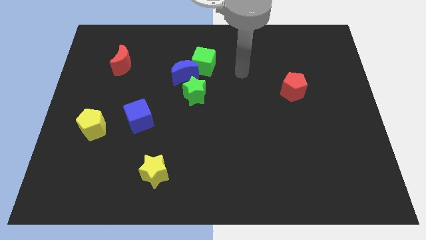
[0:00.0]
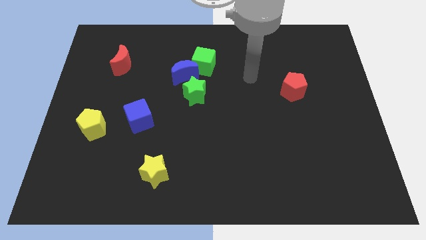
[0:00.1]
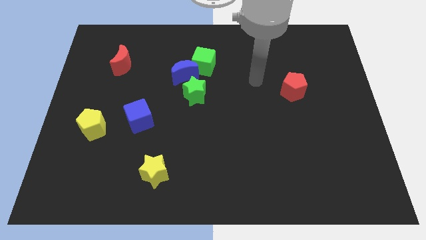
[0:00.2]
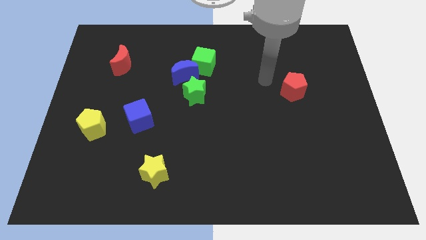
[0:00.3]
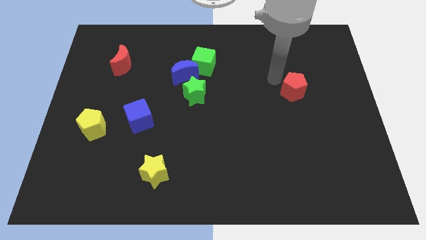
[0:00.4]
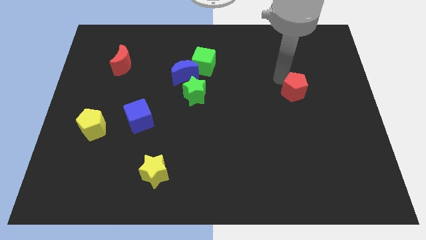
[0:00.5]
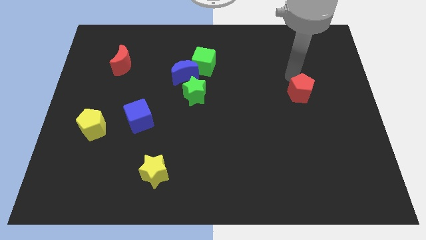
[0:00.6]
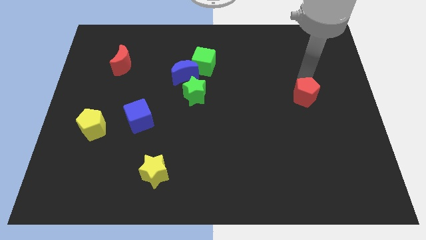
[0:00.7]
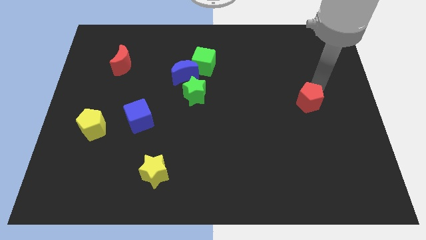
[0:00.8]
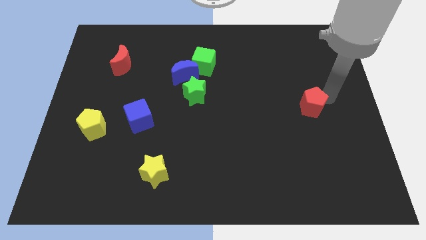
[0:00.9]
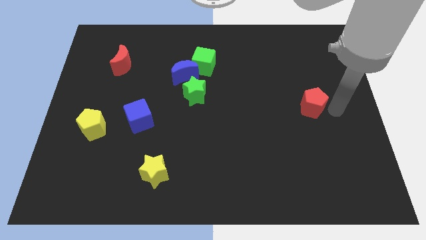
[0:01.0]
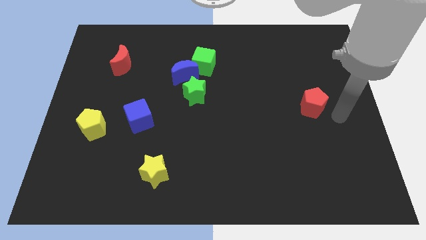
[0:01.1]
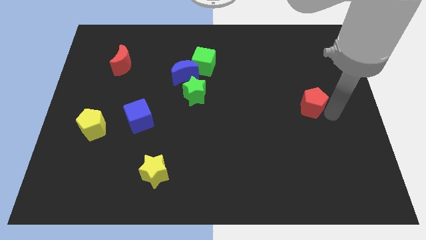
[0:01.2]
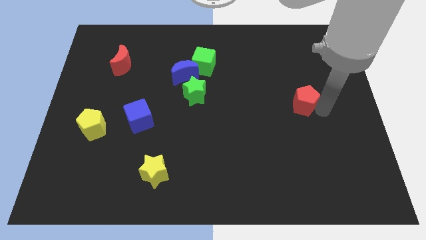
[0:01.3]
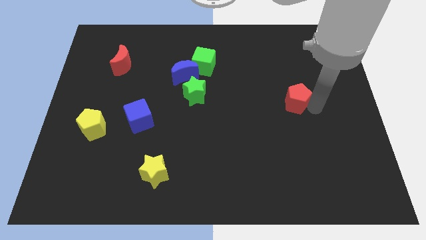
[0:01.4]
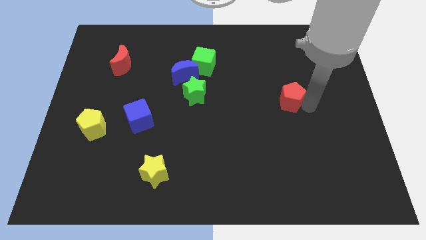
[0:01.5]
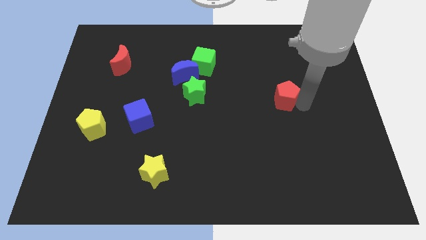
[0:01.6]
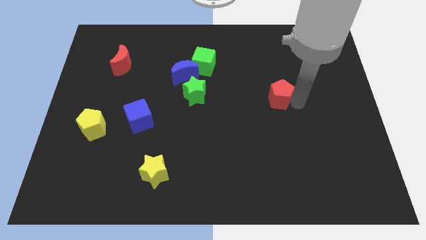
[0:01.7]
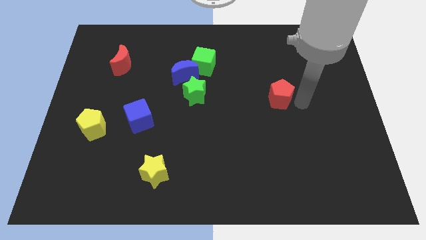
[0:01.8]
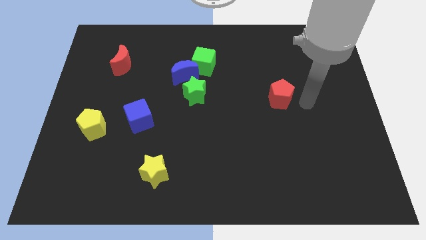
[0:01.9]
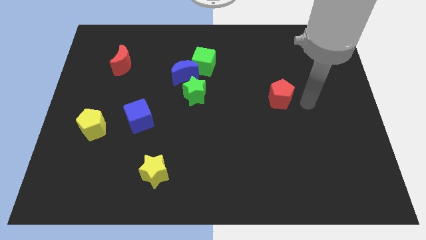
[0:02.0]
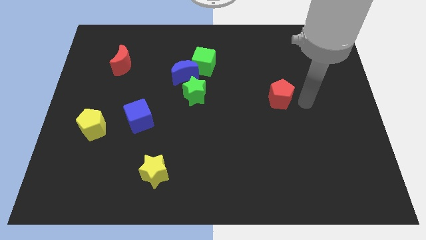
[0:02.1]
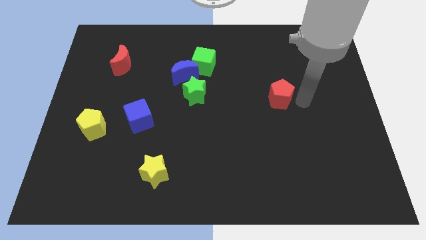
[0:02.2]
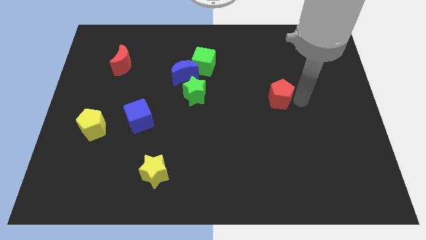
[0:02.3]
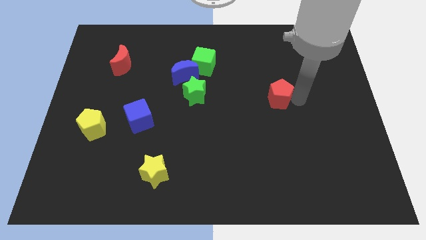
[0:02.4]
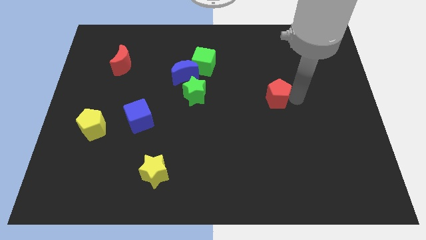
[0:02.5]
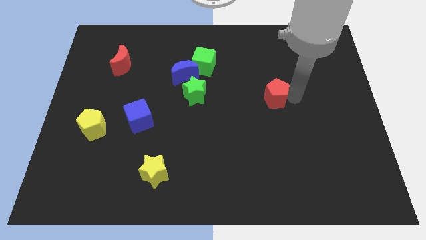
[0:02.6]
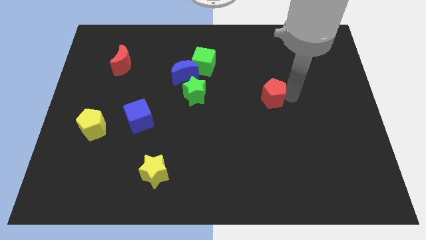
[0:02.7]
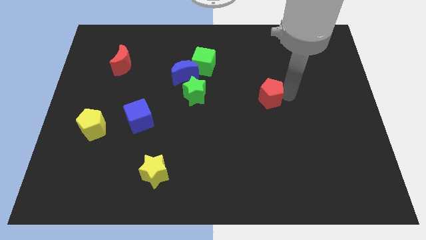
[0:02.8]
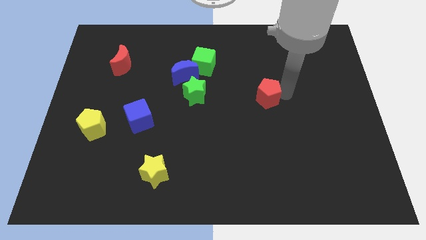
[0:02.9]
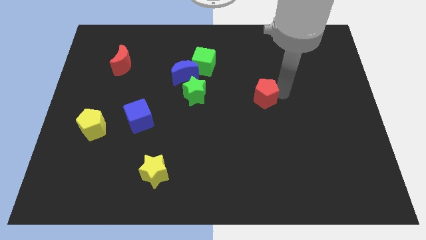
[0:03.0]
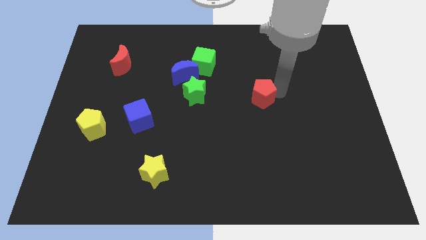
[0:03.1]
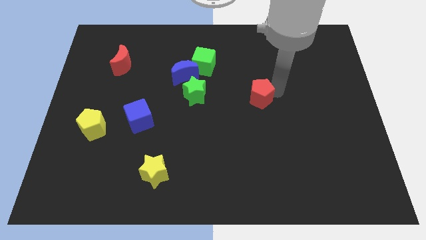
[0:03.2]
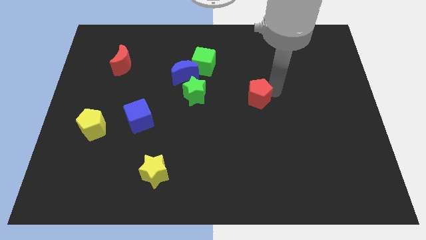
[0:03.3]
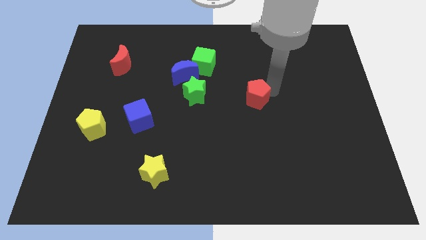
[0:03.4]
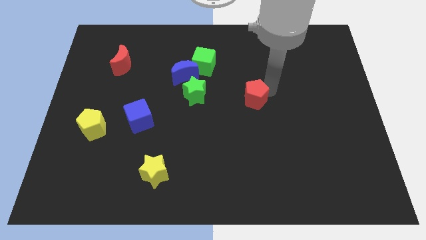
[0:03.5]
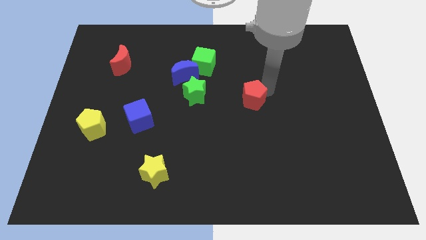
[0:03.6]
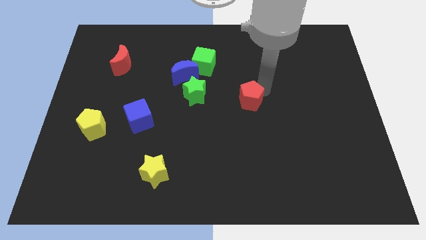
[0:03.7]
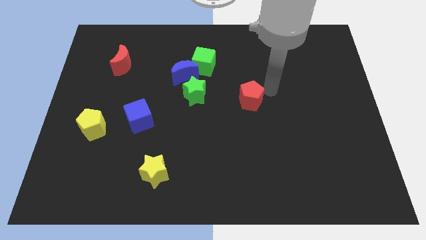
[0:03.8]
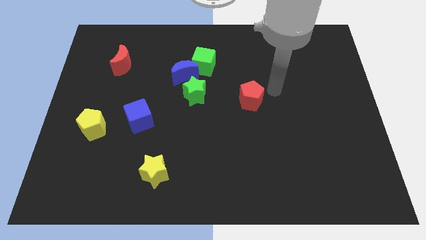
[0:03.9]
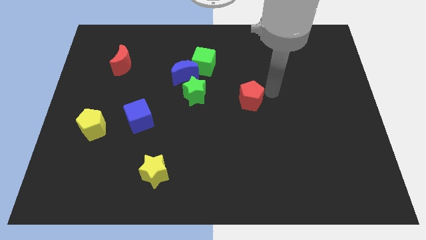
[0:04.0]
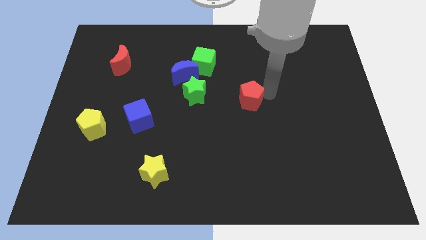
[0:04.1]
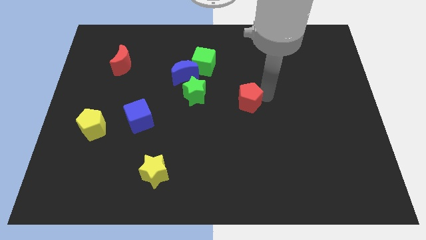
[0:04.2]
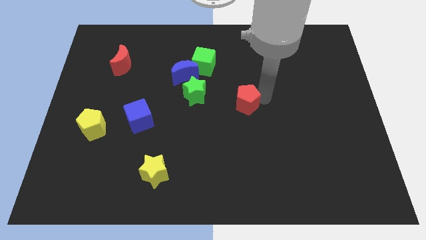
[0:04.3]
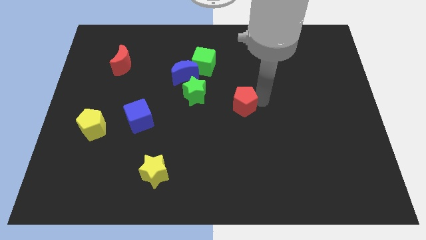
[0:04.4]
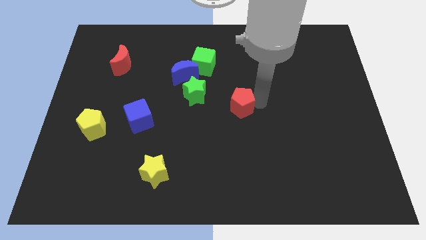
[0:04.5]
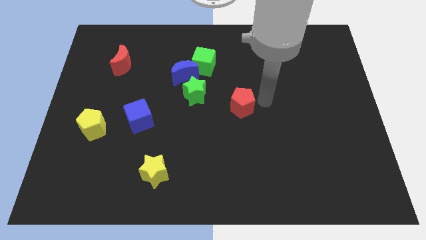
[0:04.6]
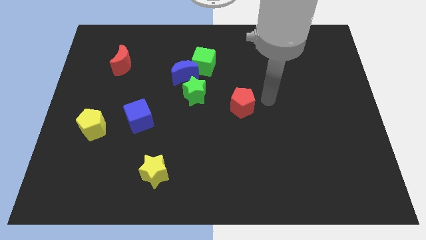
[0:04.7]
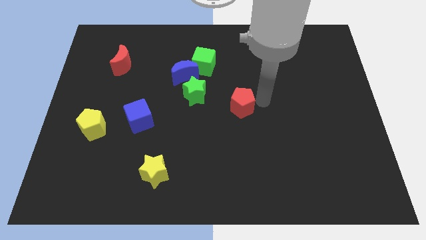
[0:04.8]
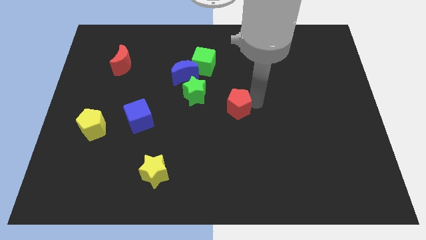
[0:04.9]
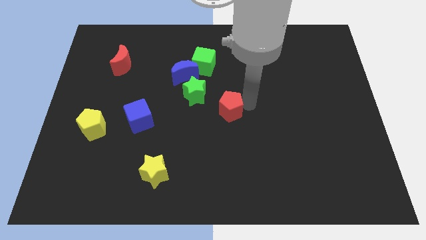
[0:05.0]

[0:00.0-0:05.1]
move the red pentagon to the bottom right of the green star

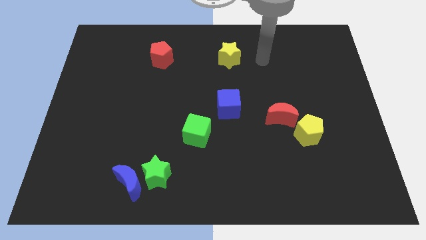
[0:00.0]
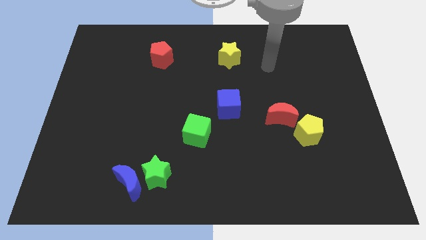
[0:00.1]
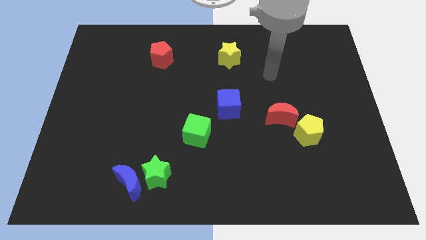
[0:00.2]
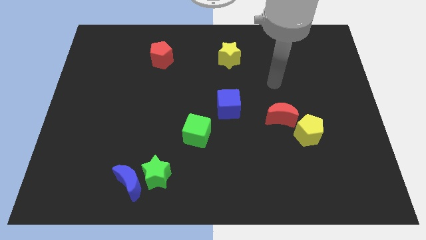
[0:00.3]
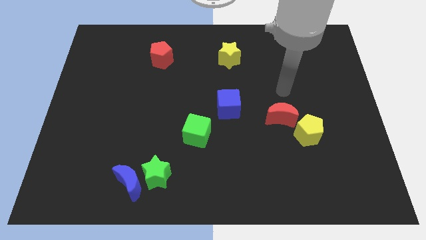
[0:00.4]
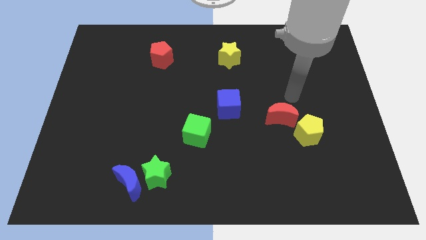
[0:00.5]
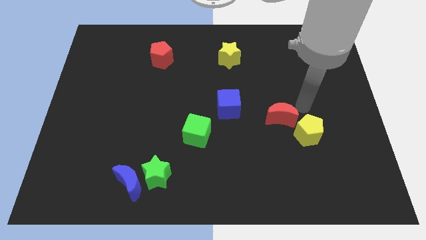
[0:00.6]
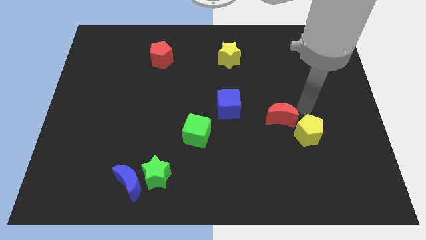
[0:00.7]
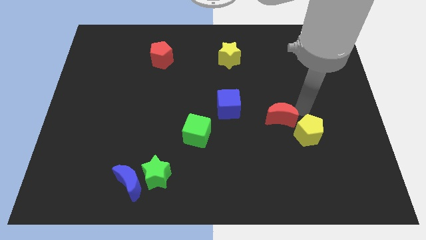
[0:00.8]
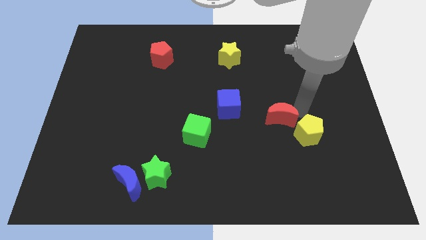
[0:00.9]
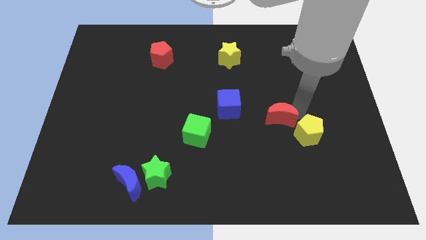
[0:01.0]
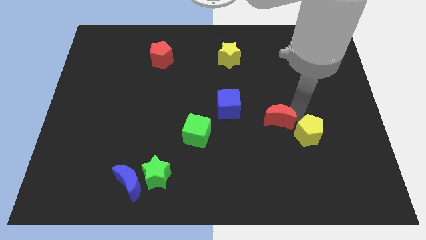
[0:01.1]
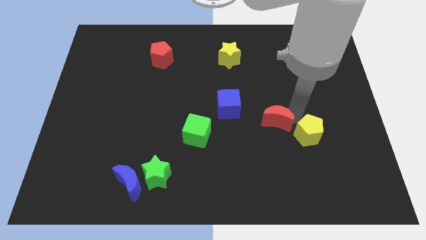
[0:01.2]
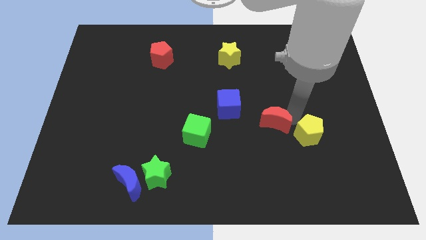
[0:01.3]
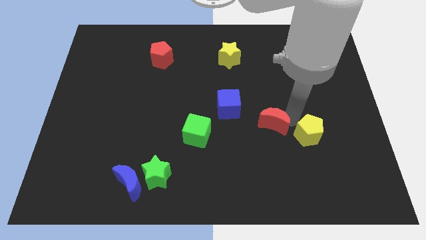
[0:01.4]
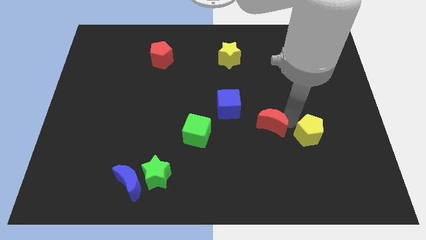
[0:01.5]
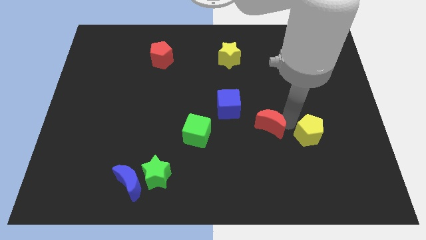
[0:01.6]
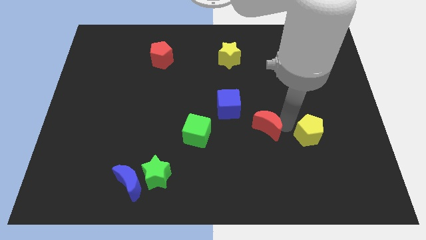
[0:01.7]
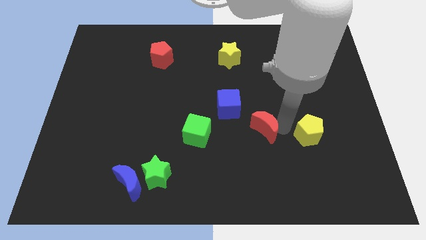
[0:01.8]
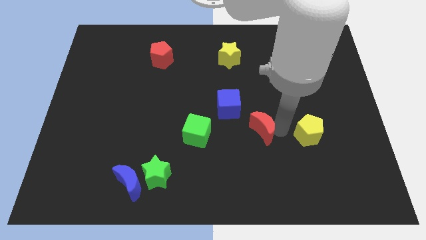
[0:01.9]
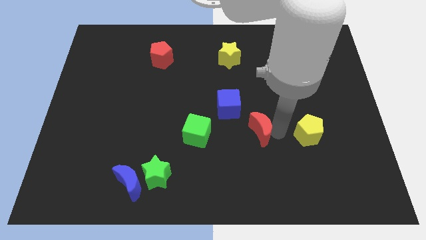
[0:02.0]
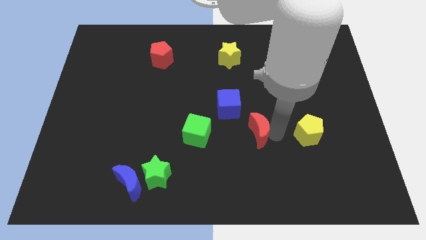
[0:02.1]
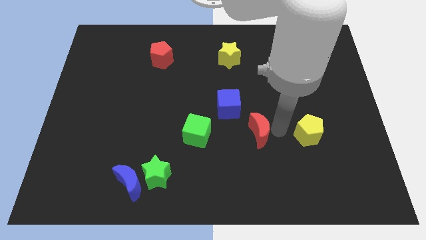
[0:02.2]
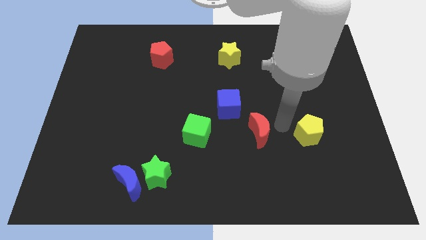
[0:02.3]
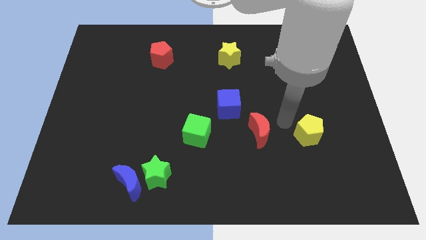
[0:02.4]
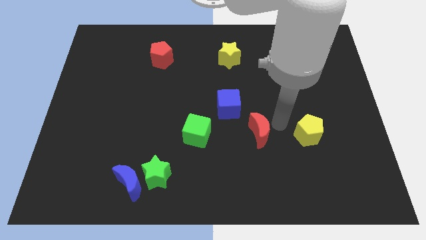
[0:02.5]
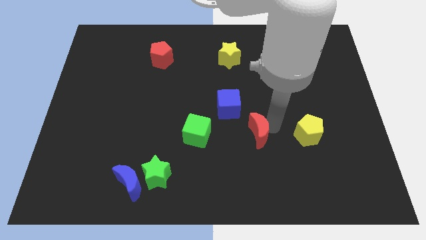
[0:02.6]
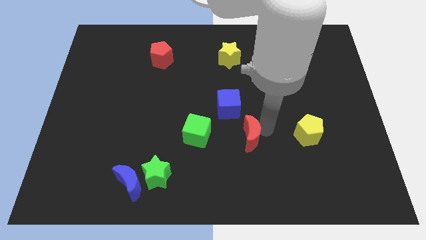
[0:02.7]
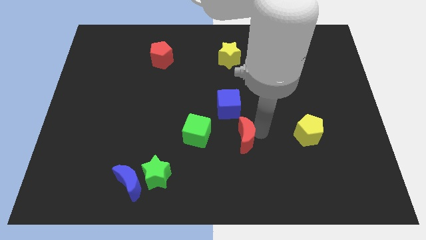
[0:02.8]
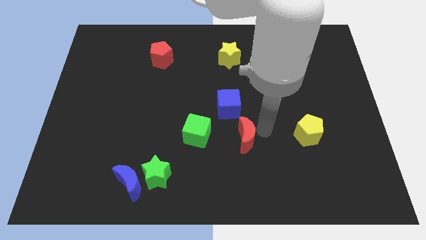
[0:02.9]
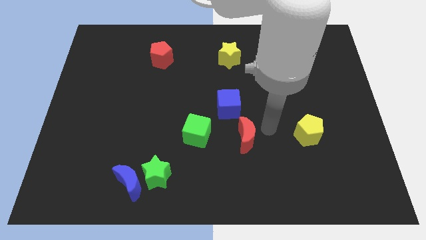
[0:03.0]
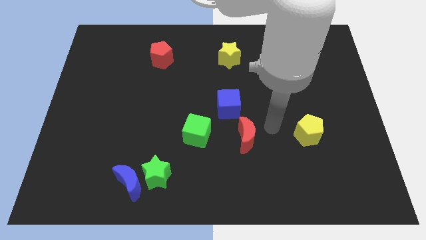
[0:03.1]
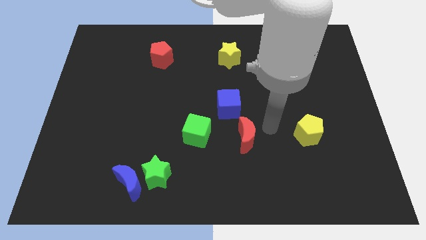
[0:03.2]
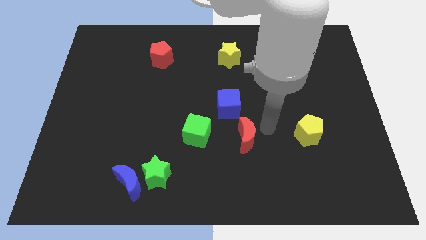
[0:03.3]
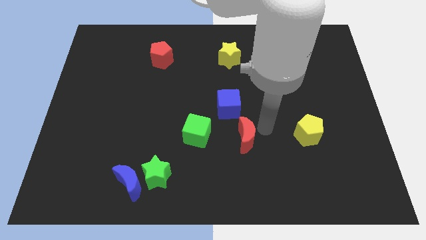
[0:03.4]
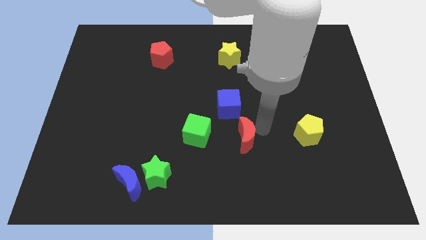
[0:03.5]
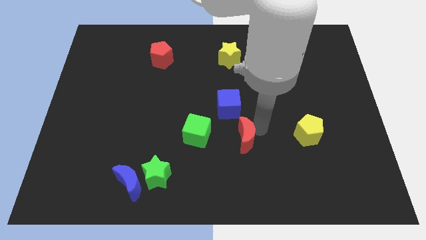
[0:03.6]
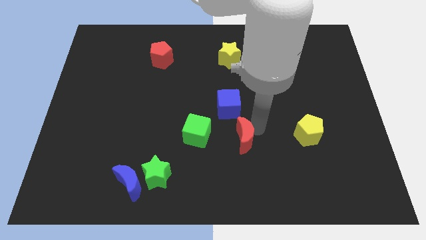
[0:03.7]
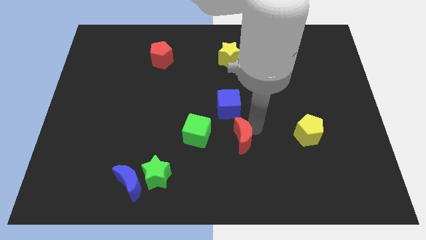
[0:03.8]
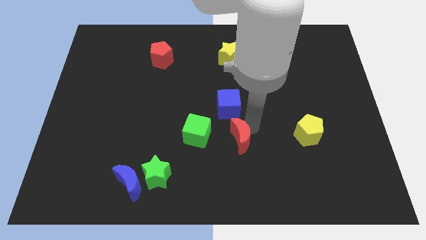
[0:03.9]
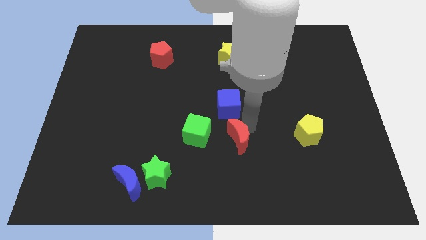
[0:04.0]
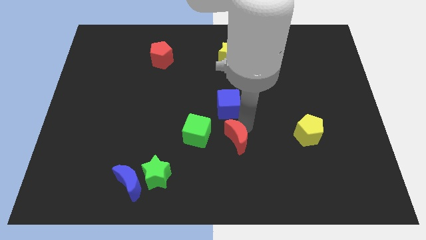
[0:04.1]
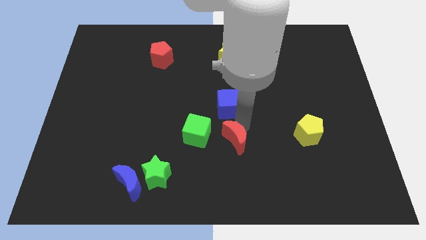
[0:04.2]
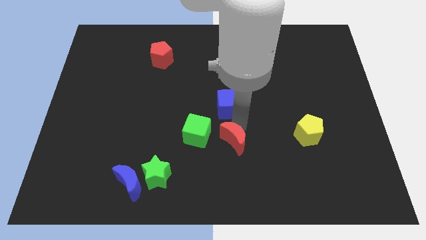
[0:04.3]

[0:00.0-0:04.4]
put the red moon to the bottom right of the green cube
